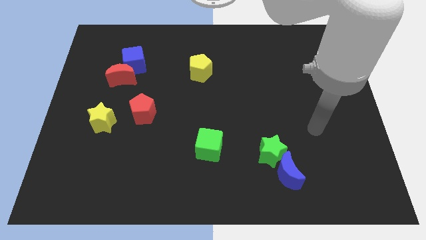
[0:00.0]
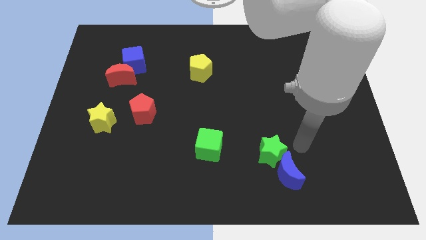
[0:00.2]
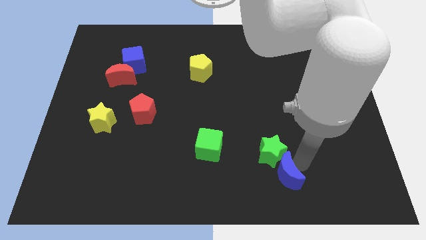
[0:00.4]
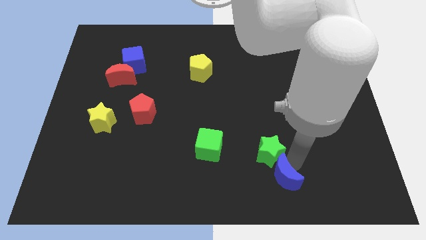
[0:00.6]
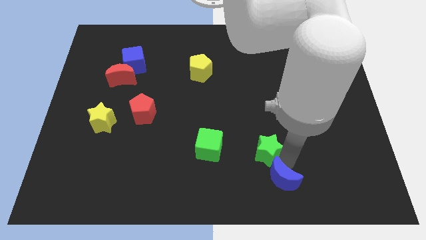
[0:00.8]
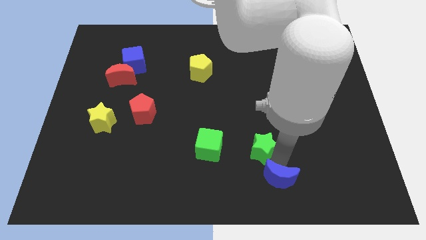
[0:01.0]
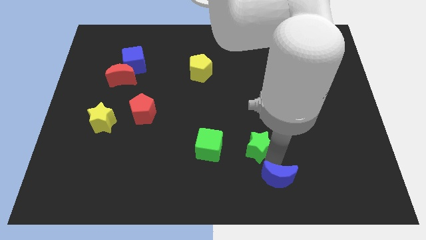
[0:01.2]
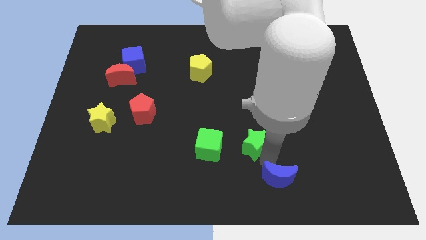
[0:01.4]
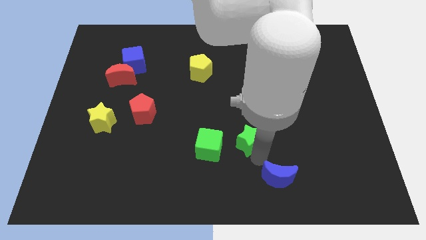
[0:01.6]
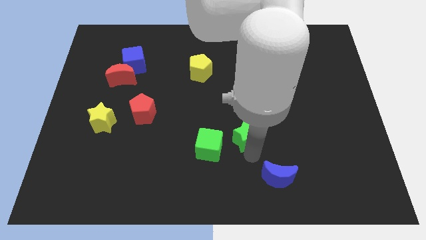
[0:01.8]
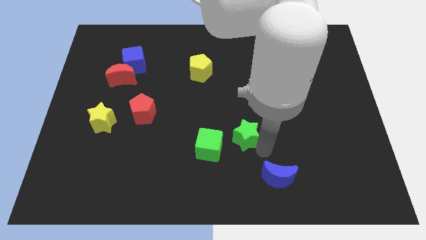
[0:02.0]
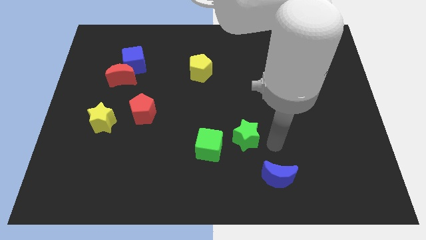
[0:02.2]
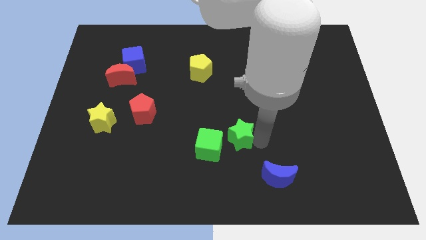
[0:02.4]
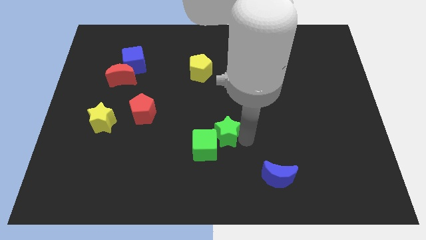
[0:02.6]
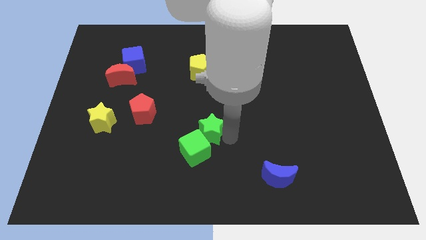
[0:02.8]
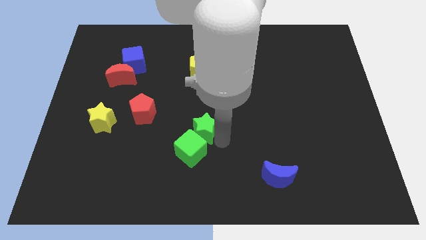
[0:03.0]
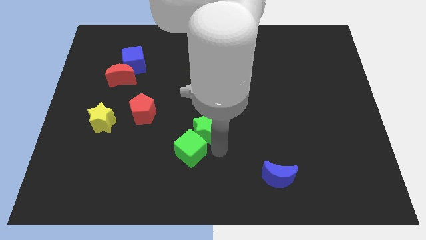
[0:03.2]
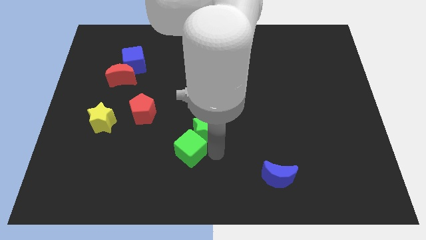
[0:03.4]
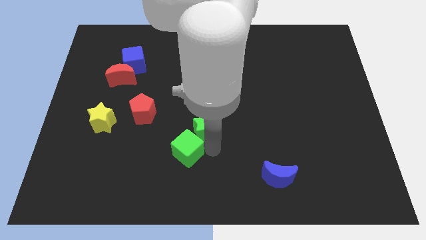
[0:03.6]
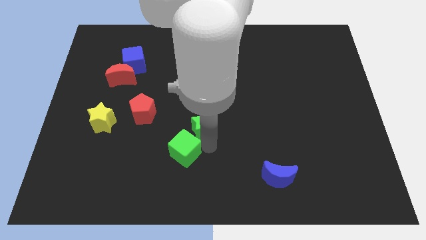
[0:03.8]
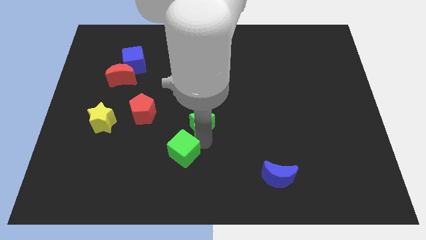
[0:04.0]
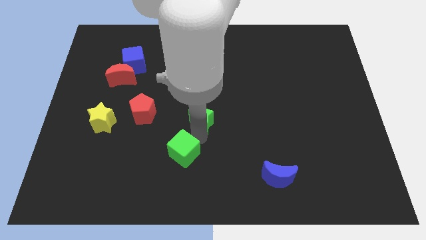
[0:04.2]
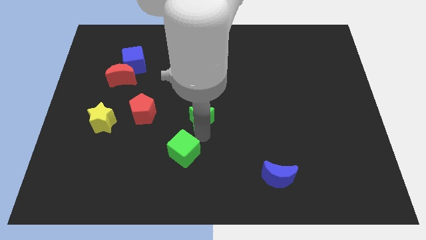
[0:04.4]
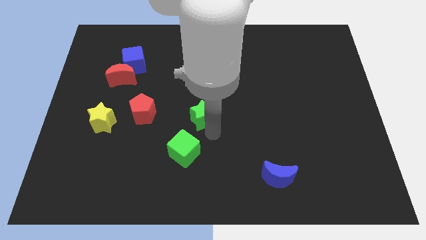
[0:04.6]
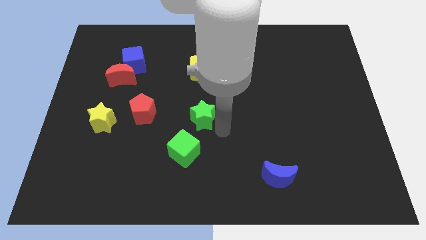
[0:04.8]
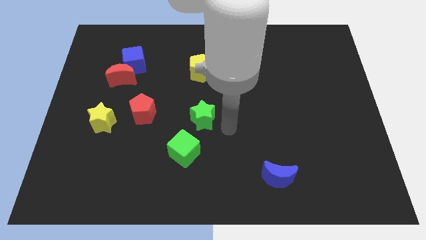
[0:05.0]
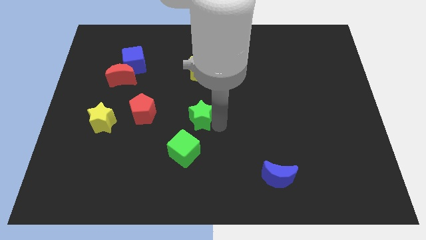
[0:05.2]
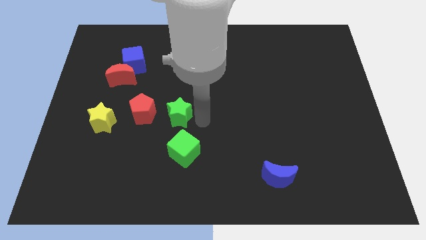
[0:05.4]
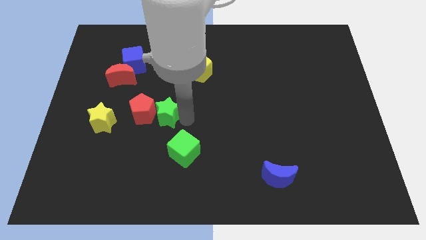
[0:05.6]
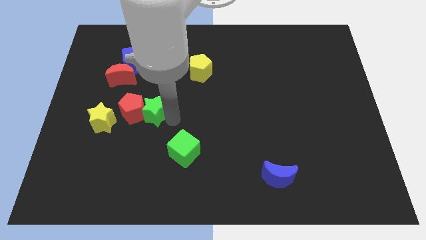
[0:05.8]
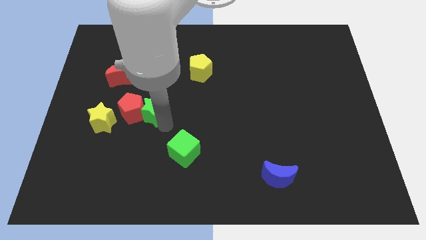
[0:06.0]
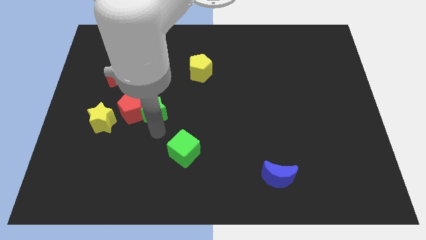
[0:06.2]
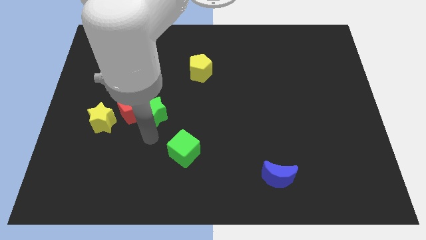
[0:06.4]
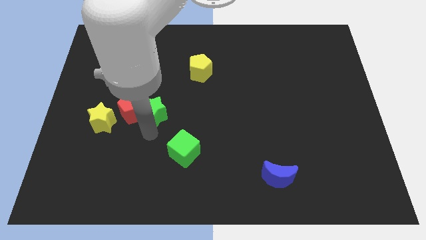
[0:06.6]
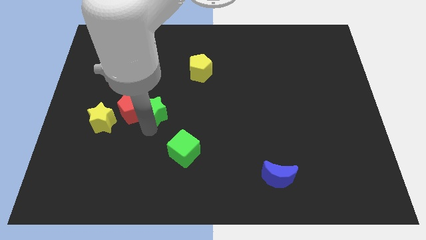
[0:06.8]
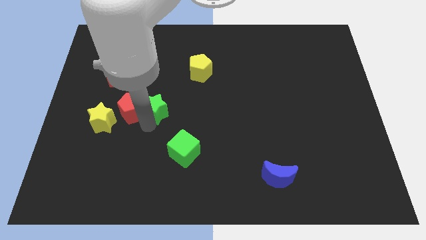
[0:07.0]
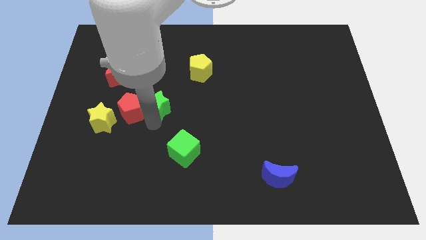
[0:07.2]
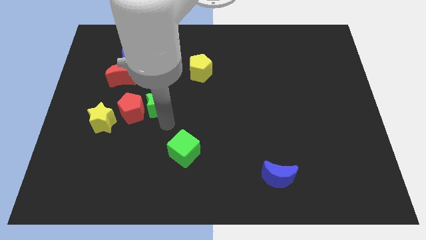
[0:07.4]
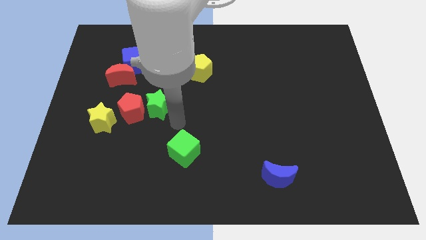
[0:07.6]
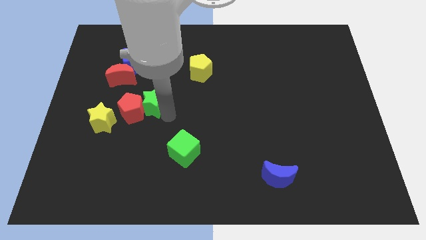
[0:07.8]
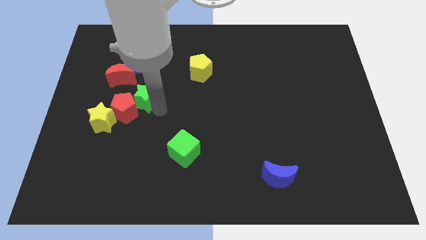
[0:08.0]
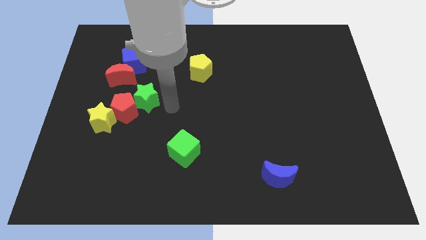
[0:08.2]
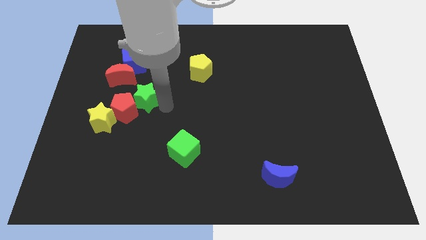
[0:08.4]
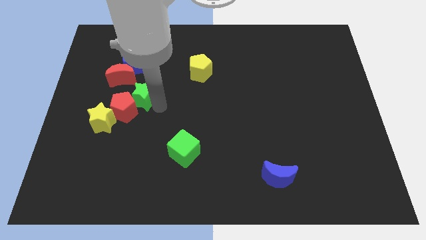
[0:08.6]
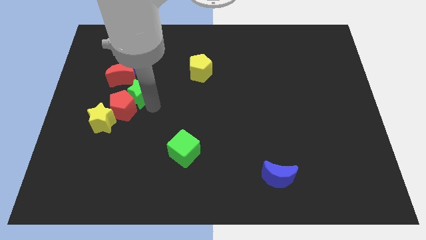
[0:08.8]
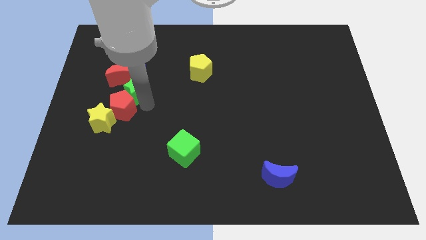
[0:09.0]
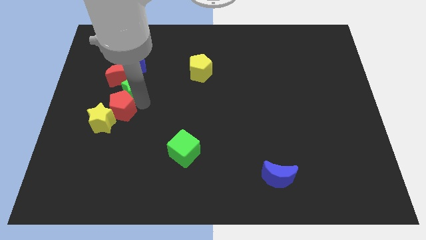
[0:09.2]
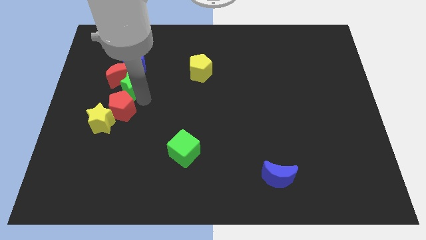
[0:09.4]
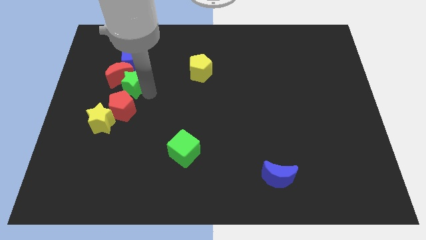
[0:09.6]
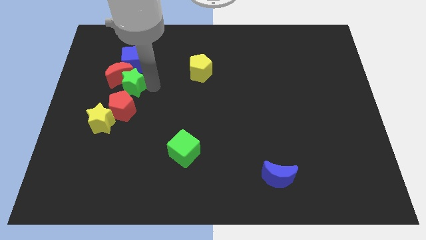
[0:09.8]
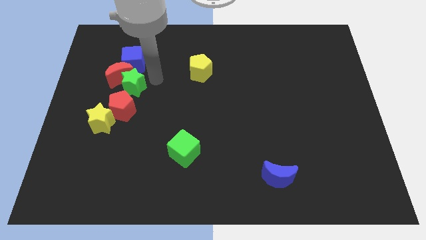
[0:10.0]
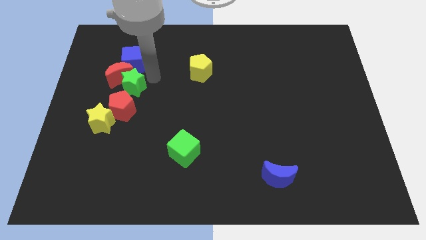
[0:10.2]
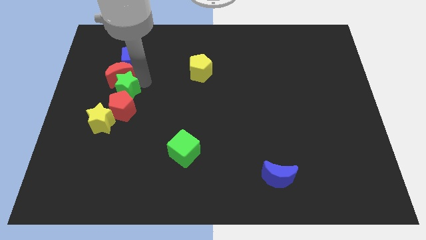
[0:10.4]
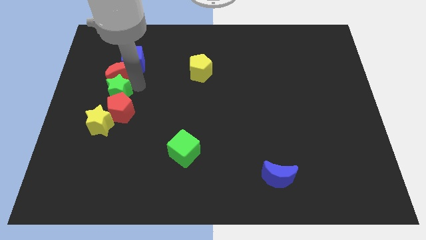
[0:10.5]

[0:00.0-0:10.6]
put the green star diagonally down and to the left of the red moon

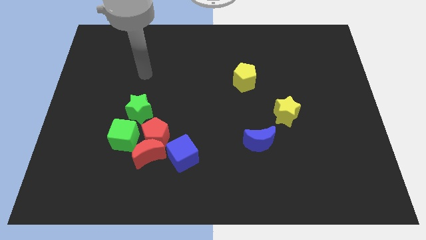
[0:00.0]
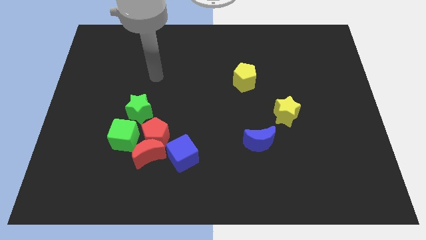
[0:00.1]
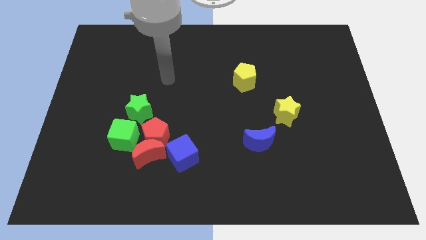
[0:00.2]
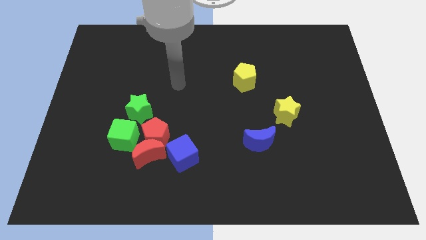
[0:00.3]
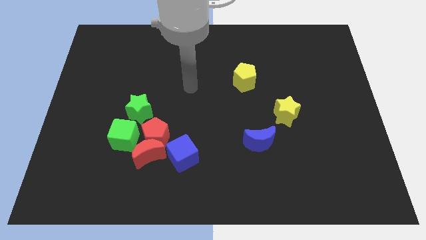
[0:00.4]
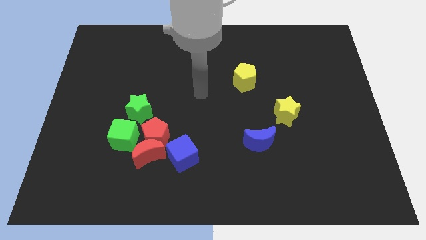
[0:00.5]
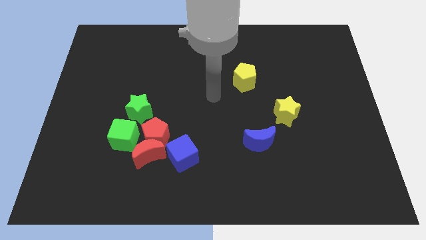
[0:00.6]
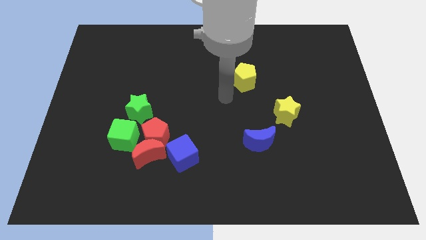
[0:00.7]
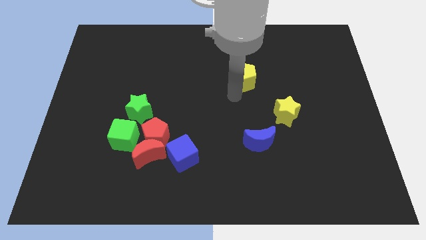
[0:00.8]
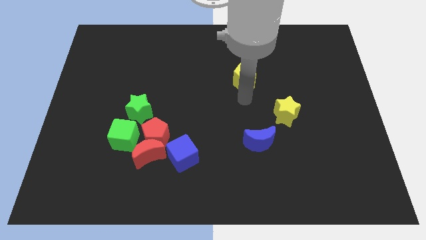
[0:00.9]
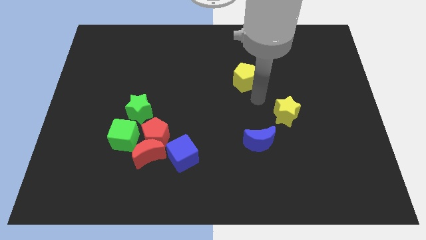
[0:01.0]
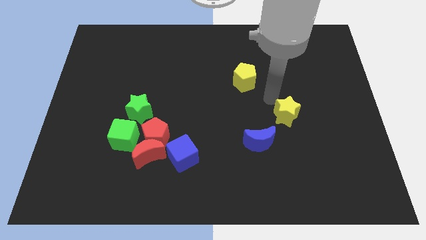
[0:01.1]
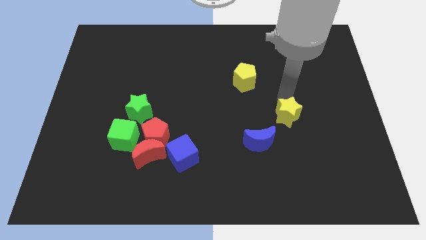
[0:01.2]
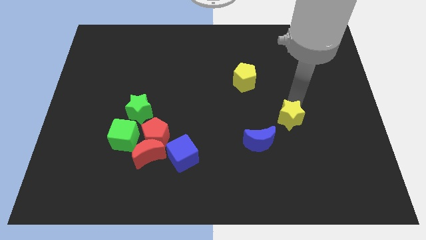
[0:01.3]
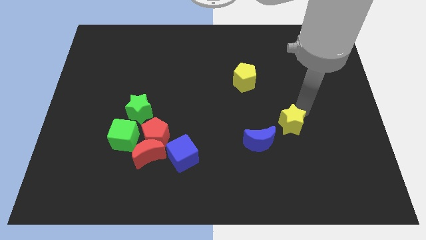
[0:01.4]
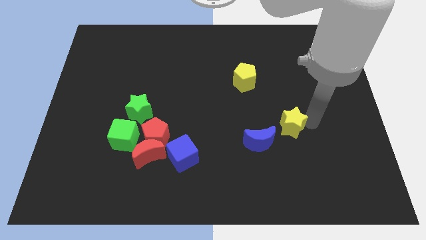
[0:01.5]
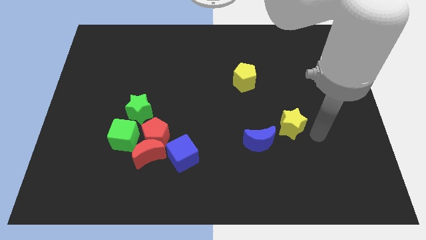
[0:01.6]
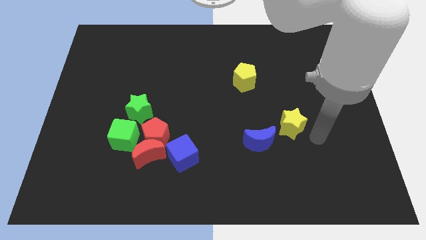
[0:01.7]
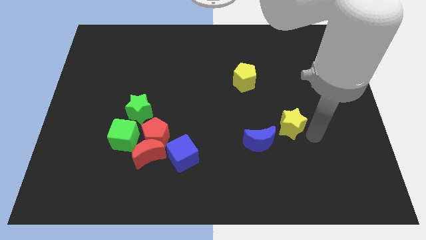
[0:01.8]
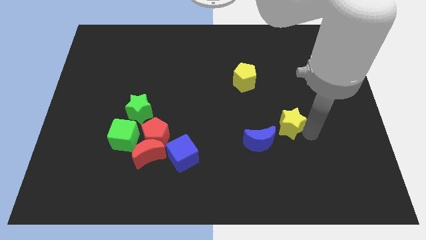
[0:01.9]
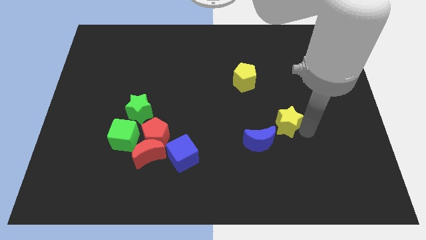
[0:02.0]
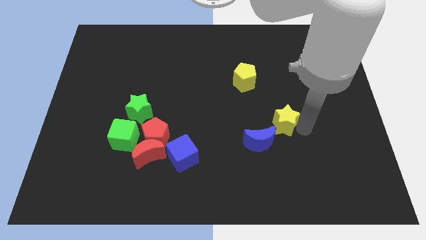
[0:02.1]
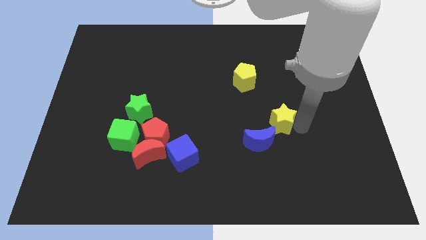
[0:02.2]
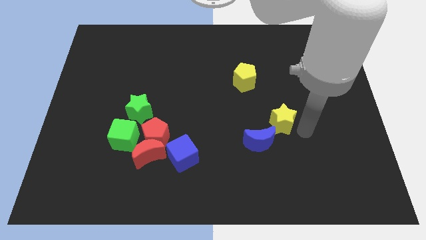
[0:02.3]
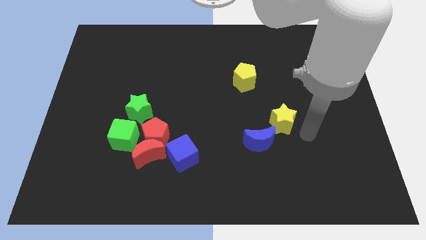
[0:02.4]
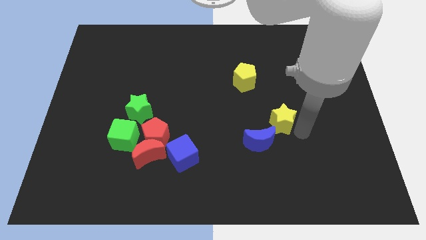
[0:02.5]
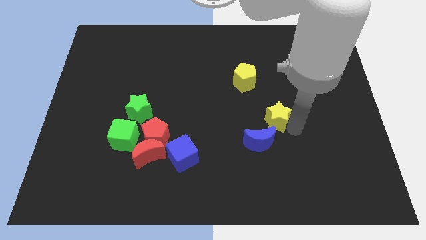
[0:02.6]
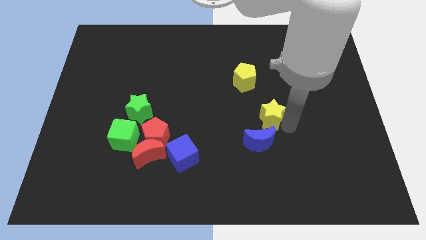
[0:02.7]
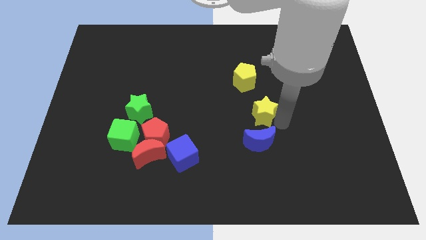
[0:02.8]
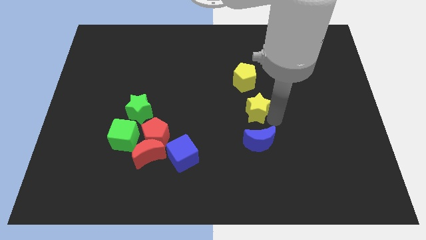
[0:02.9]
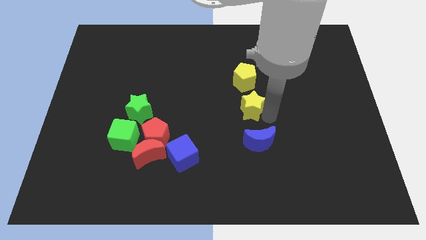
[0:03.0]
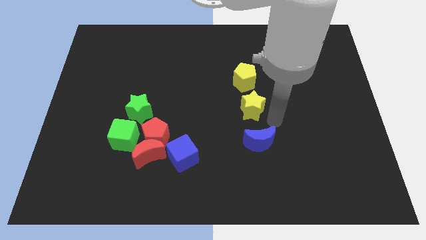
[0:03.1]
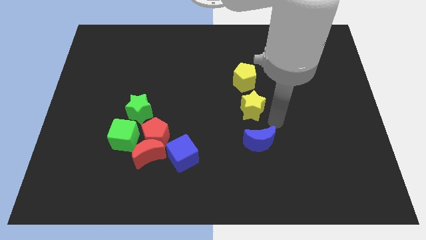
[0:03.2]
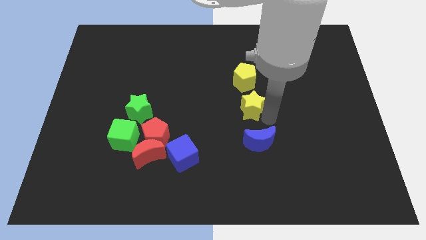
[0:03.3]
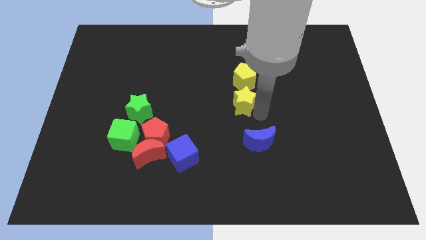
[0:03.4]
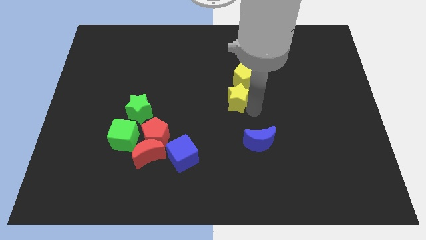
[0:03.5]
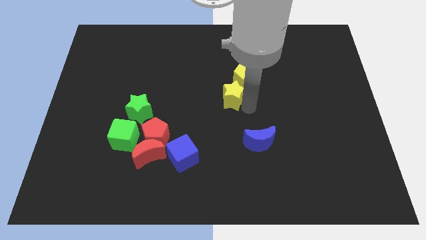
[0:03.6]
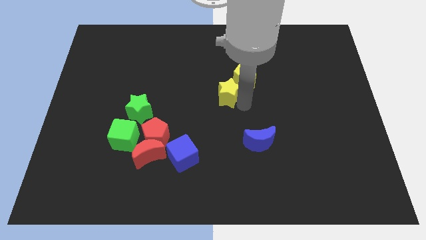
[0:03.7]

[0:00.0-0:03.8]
slide the yellow star to the left of the yellow pentagon
